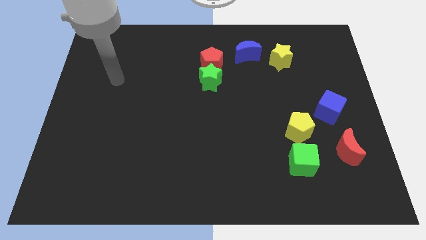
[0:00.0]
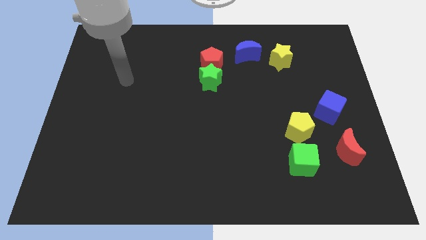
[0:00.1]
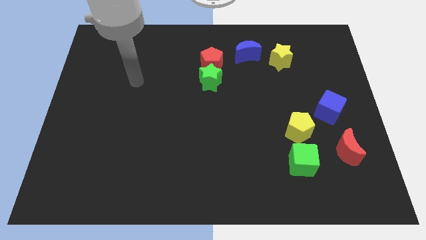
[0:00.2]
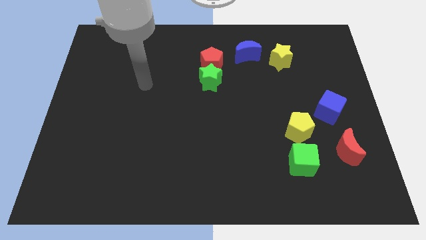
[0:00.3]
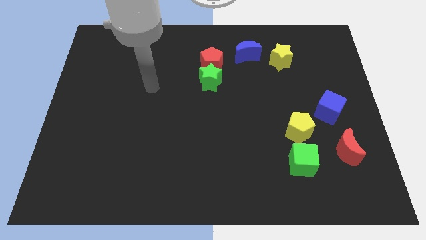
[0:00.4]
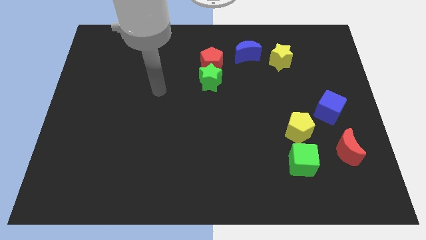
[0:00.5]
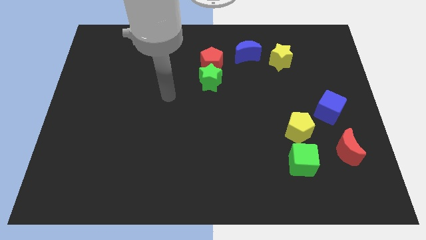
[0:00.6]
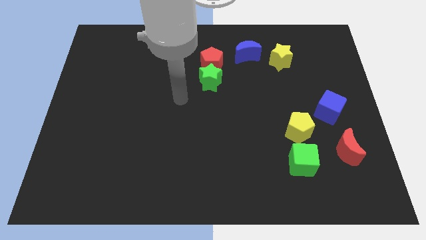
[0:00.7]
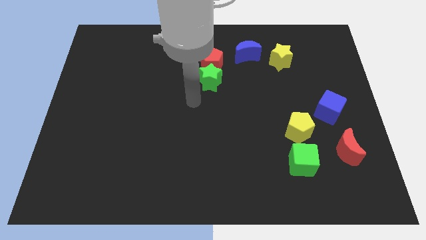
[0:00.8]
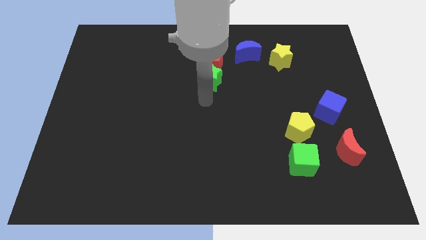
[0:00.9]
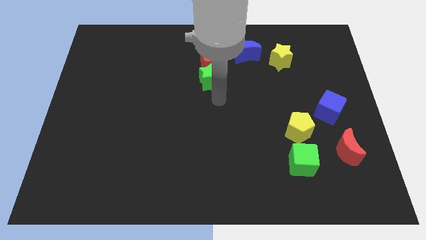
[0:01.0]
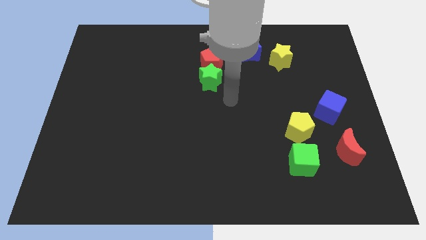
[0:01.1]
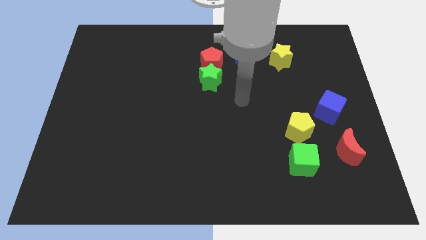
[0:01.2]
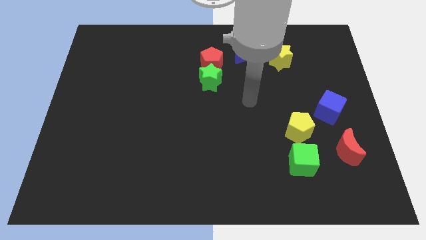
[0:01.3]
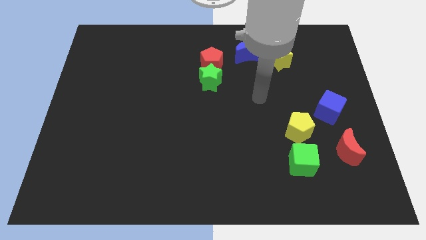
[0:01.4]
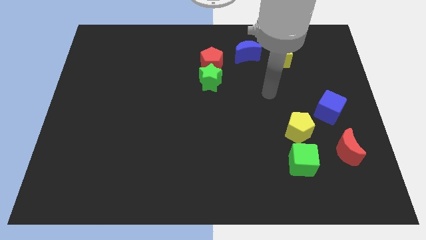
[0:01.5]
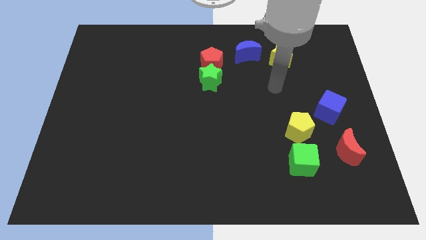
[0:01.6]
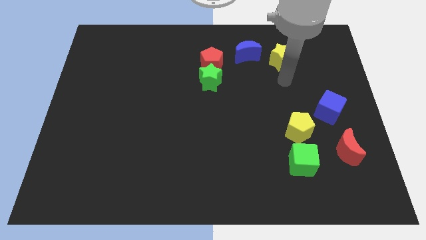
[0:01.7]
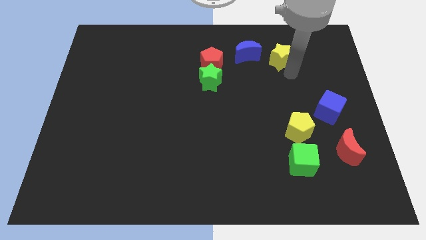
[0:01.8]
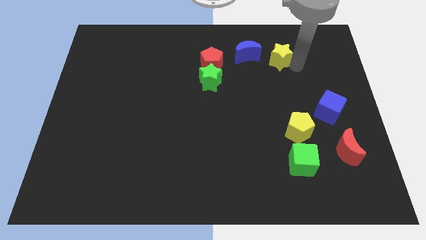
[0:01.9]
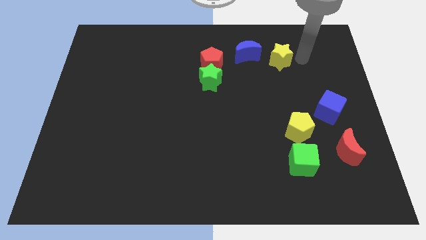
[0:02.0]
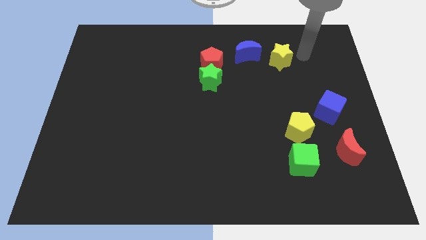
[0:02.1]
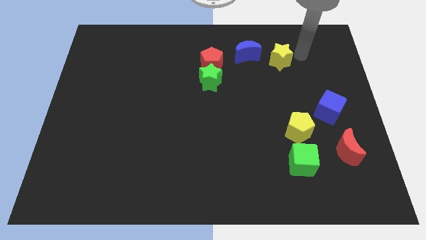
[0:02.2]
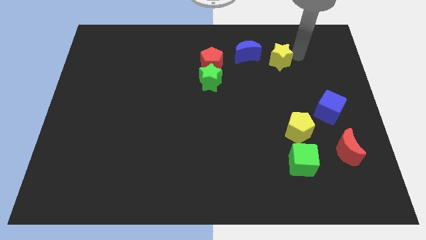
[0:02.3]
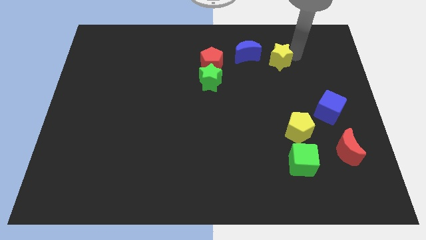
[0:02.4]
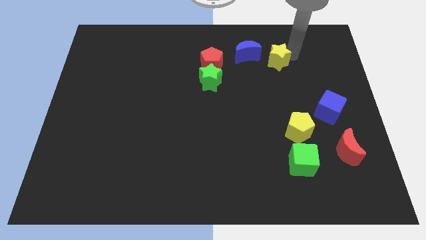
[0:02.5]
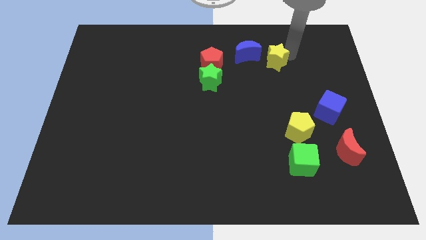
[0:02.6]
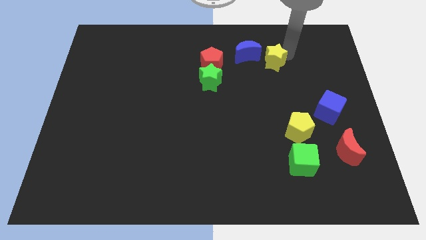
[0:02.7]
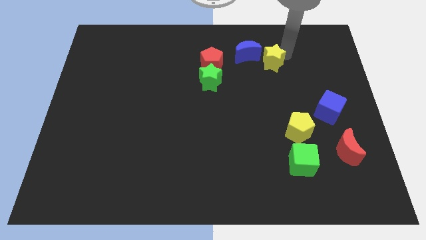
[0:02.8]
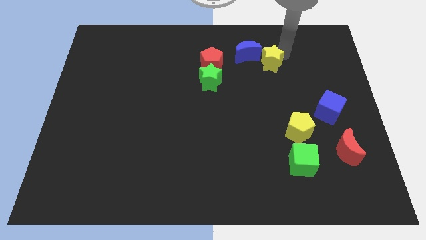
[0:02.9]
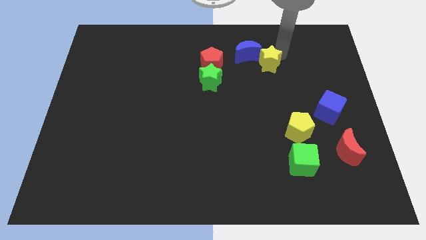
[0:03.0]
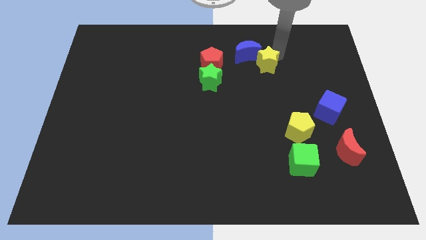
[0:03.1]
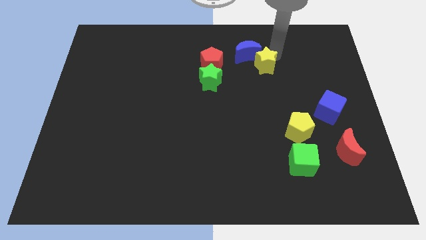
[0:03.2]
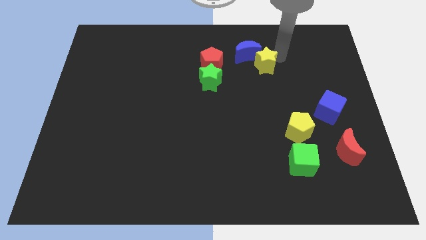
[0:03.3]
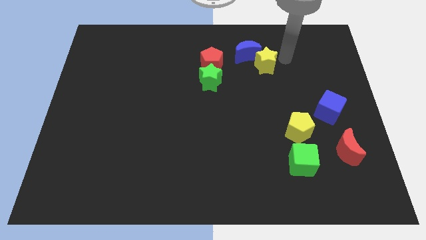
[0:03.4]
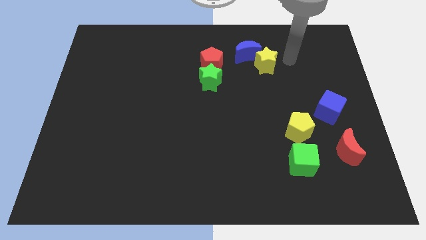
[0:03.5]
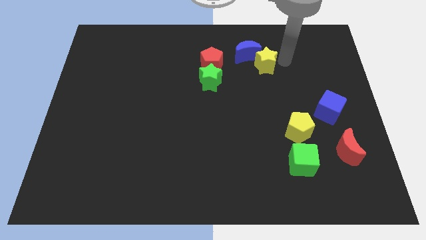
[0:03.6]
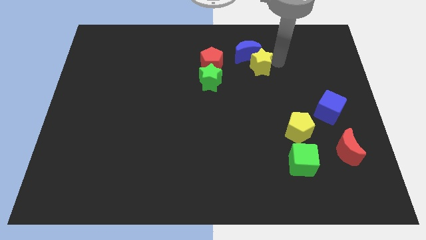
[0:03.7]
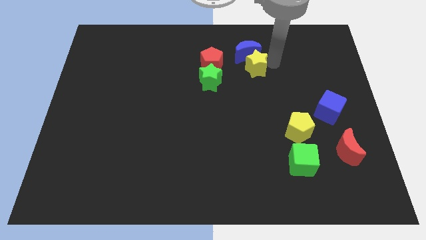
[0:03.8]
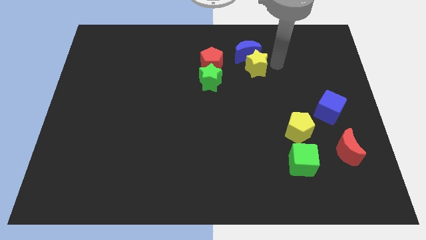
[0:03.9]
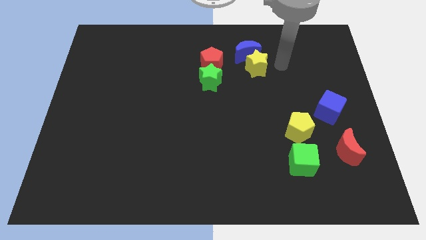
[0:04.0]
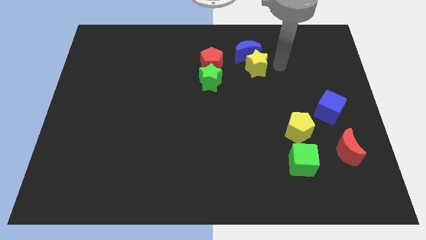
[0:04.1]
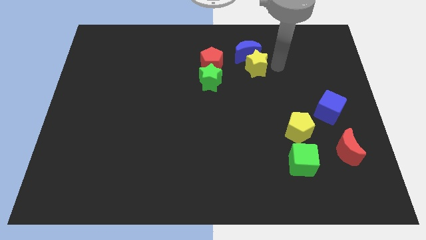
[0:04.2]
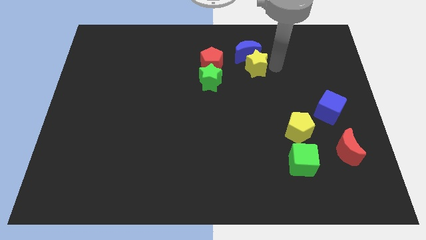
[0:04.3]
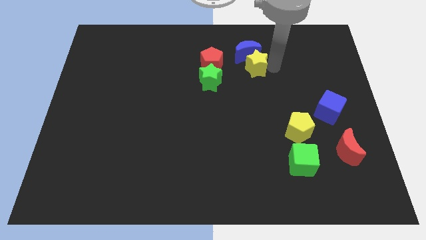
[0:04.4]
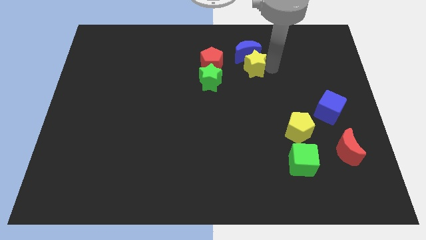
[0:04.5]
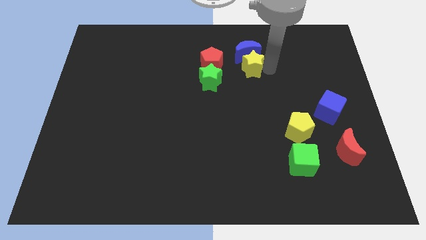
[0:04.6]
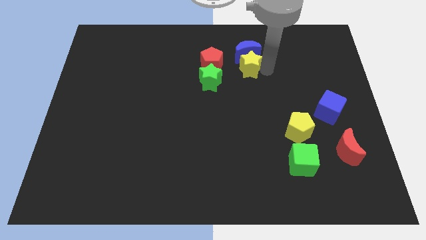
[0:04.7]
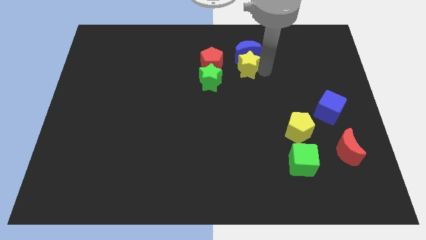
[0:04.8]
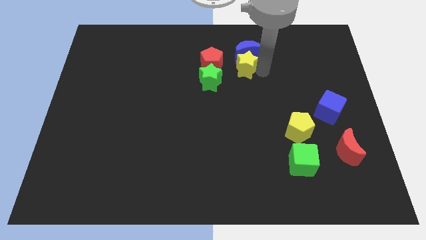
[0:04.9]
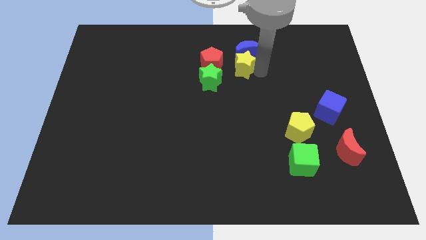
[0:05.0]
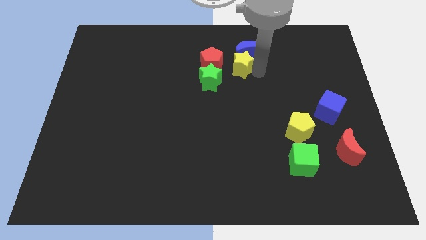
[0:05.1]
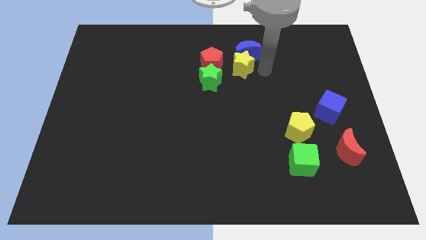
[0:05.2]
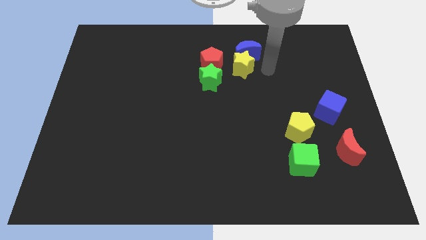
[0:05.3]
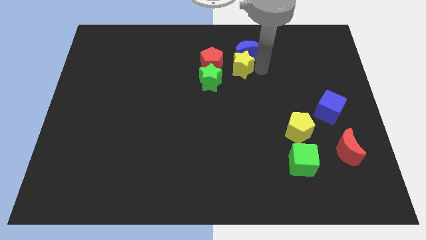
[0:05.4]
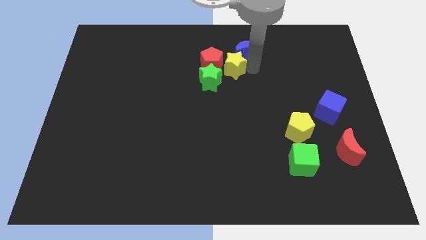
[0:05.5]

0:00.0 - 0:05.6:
move the yellow star to the red pentagon

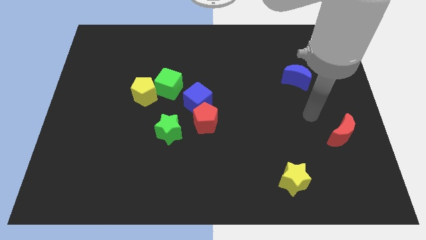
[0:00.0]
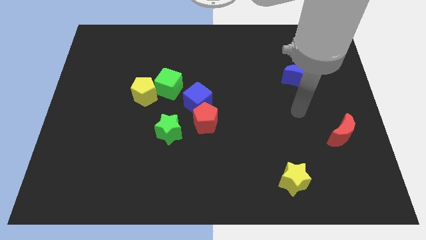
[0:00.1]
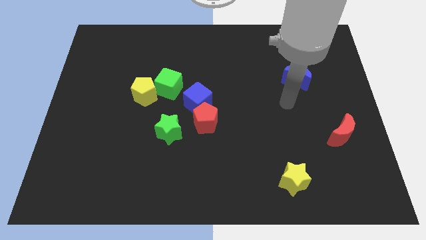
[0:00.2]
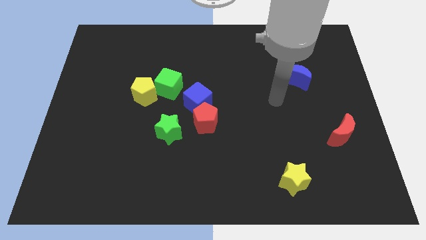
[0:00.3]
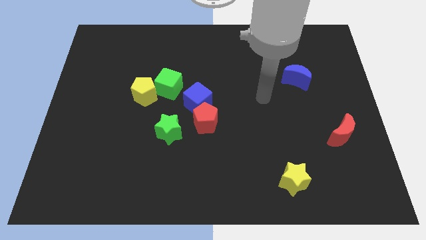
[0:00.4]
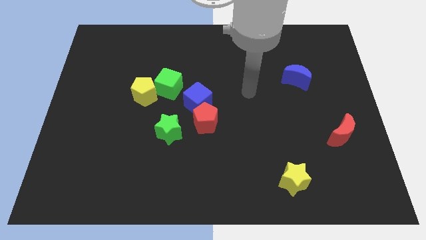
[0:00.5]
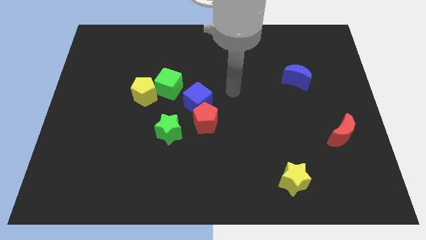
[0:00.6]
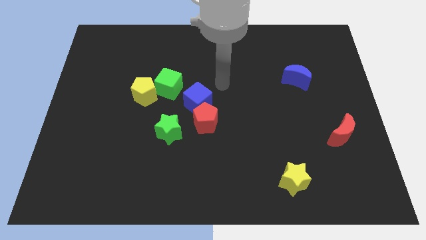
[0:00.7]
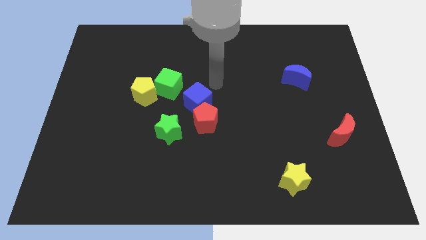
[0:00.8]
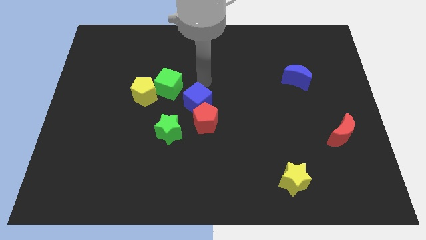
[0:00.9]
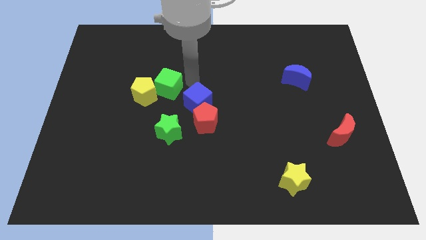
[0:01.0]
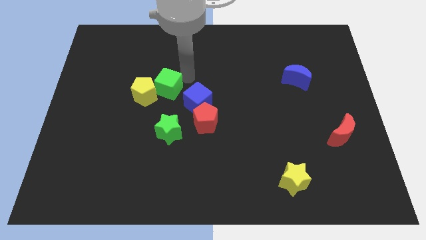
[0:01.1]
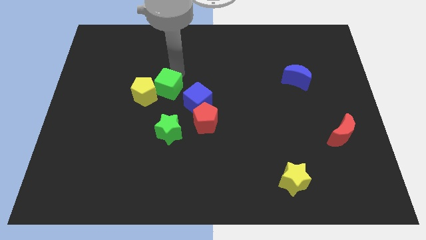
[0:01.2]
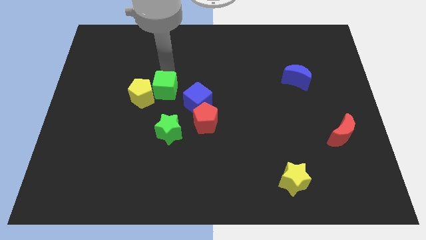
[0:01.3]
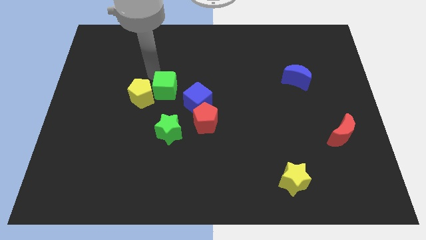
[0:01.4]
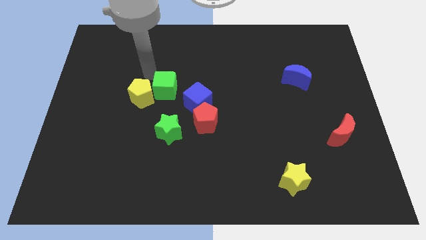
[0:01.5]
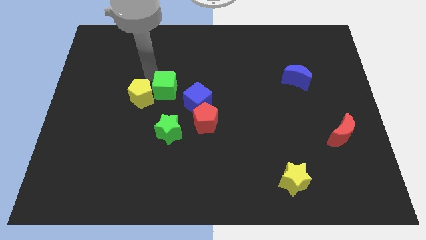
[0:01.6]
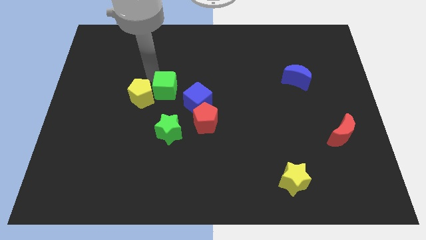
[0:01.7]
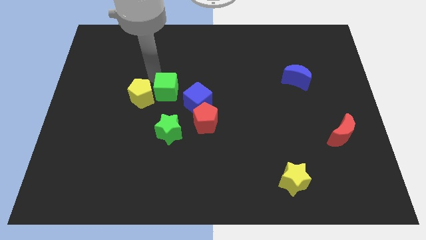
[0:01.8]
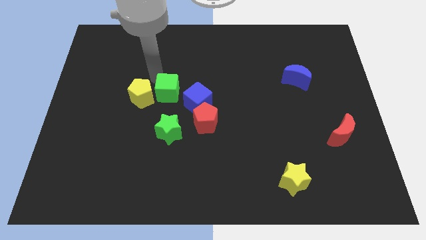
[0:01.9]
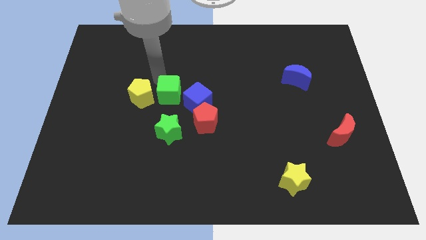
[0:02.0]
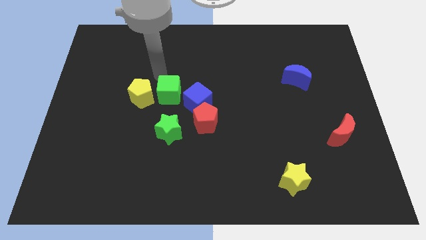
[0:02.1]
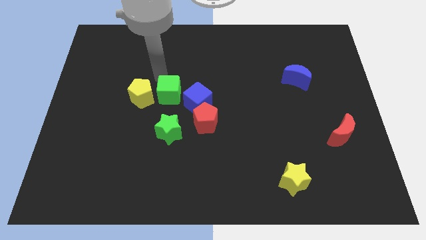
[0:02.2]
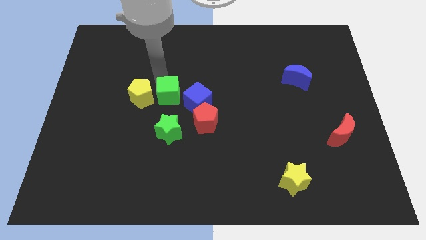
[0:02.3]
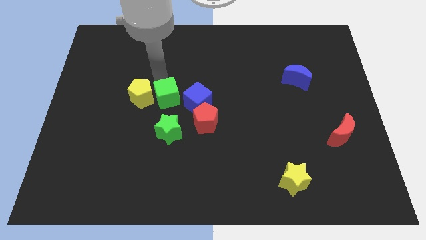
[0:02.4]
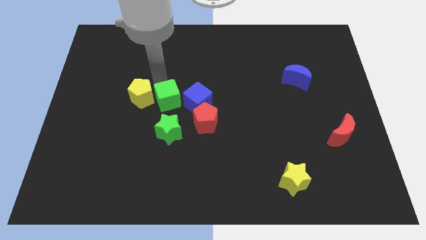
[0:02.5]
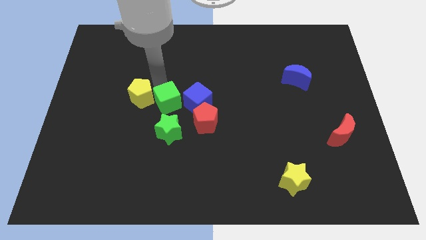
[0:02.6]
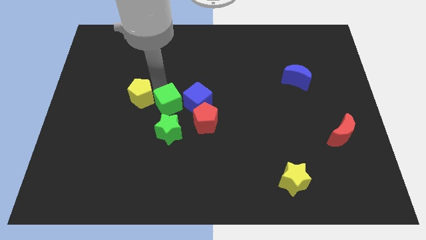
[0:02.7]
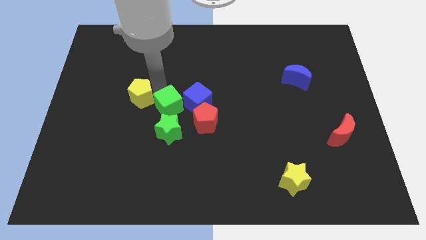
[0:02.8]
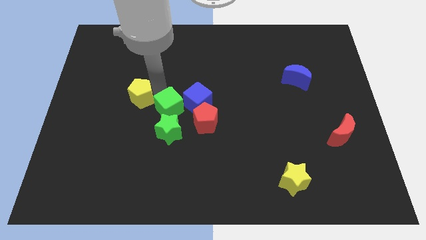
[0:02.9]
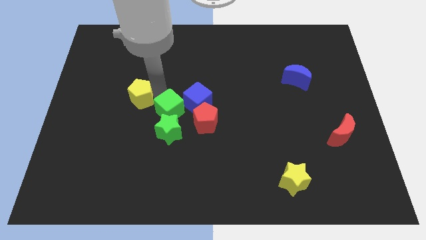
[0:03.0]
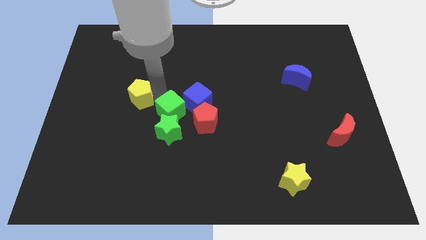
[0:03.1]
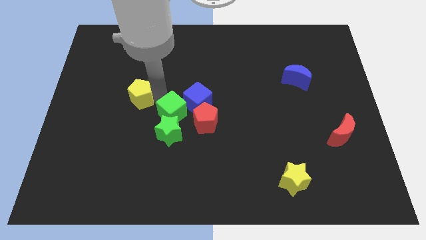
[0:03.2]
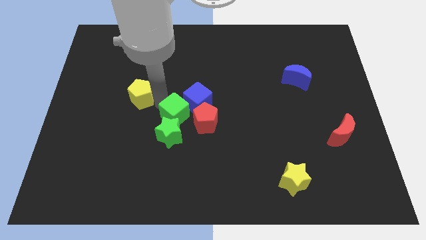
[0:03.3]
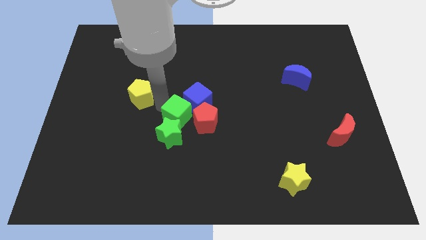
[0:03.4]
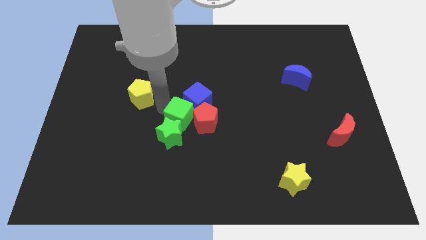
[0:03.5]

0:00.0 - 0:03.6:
move the green cube towards the red pentagon
